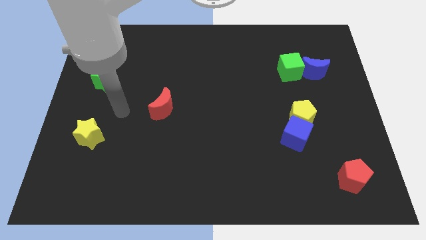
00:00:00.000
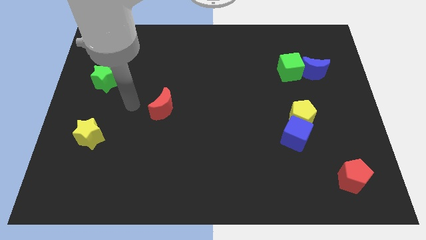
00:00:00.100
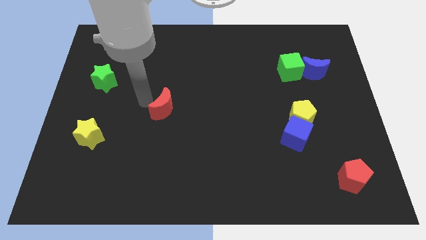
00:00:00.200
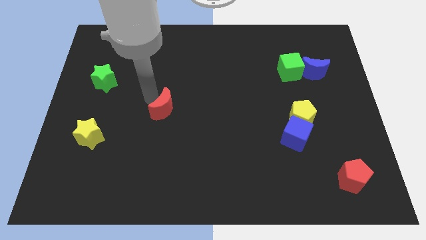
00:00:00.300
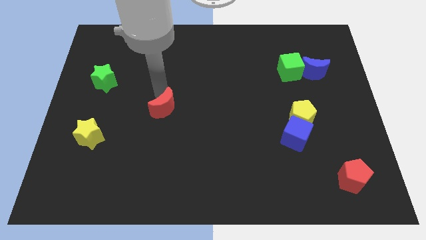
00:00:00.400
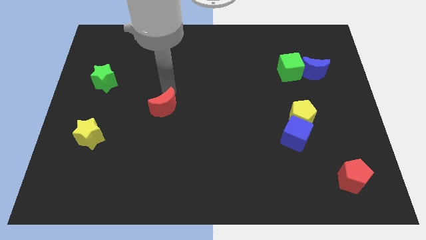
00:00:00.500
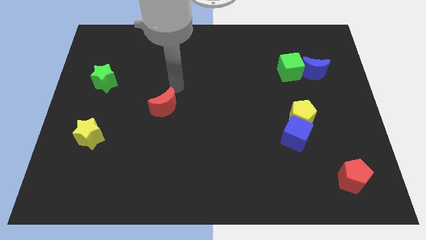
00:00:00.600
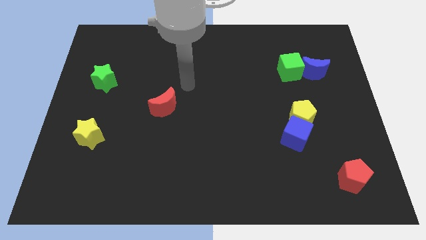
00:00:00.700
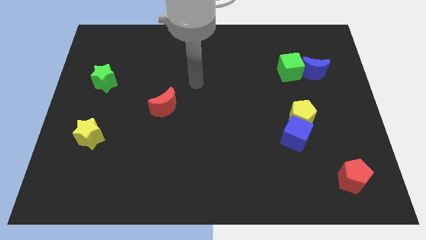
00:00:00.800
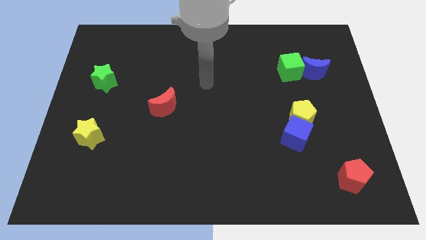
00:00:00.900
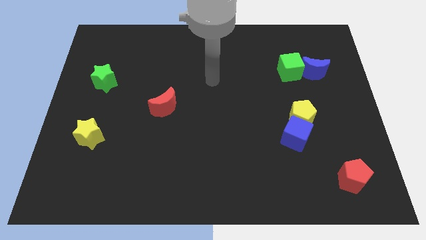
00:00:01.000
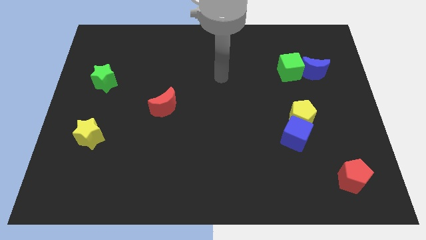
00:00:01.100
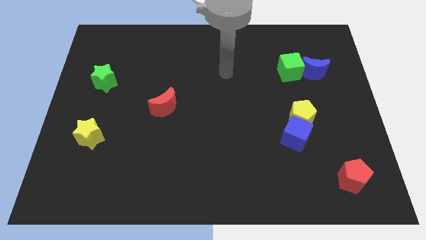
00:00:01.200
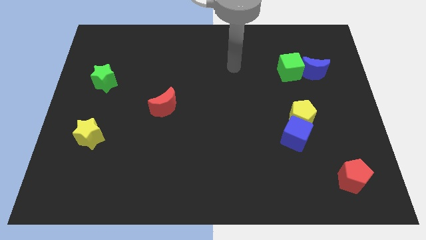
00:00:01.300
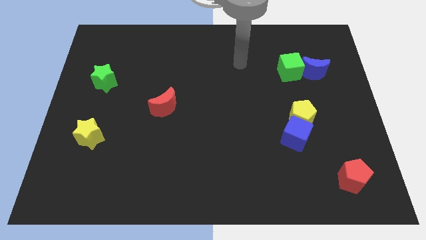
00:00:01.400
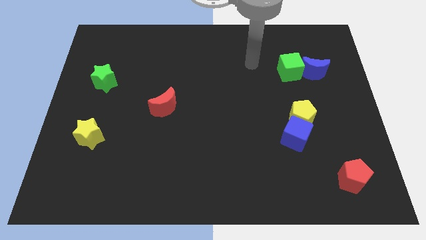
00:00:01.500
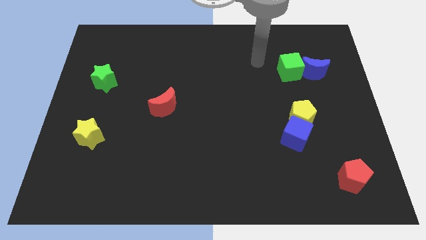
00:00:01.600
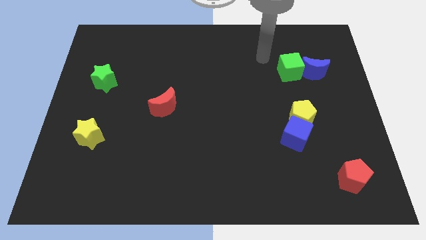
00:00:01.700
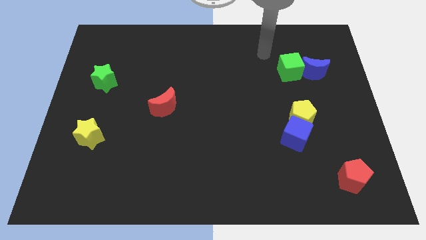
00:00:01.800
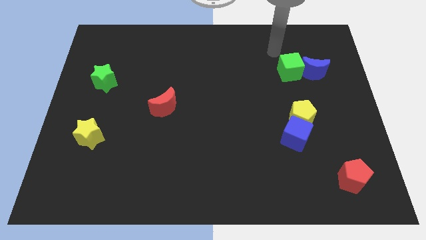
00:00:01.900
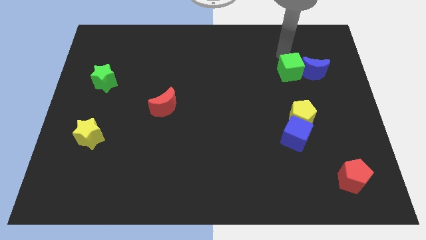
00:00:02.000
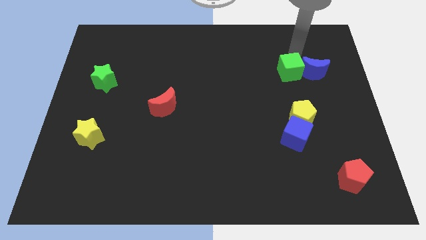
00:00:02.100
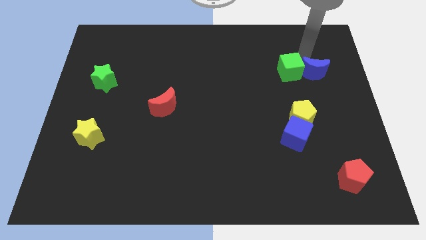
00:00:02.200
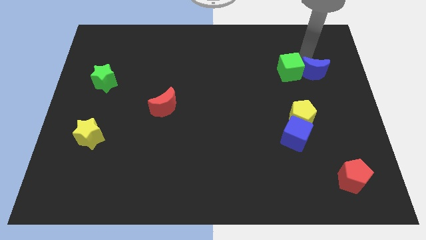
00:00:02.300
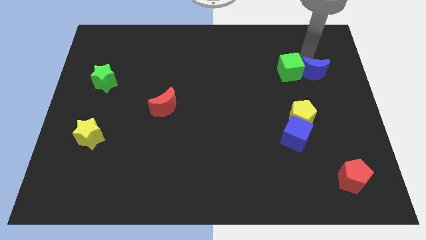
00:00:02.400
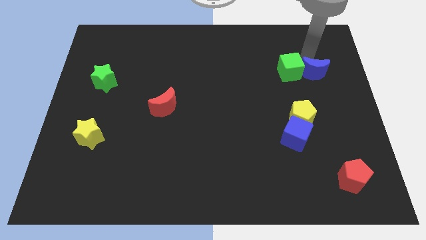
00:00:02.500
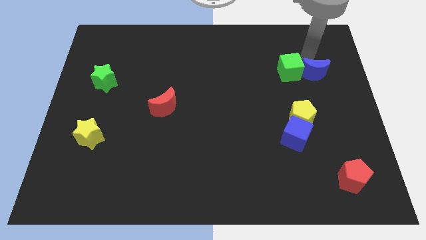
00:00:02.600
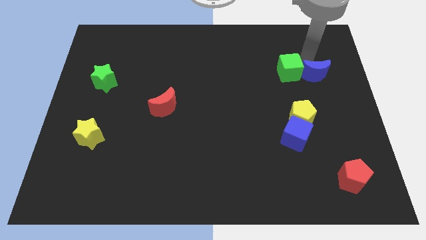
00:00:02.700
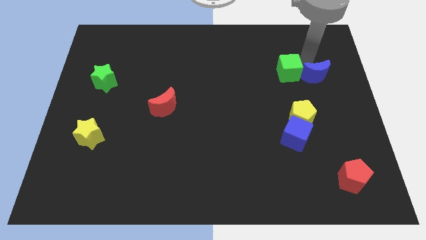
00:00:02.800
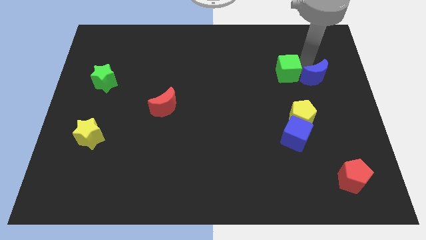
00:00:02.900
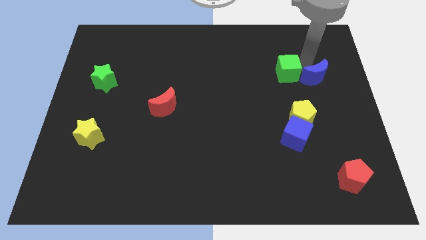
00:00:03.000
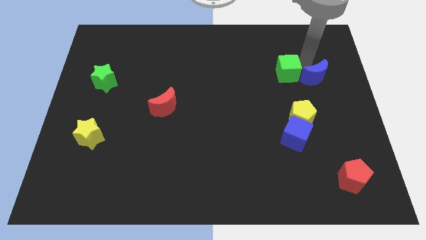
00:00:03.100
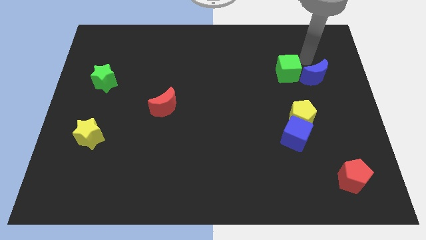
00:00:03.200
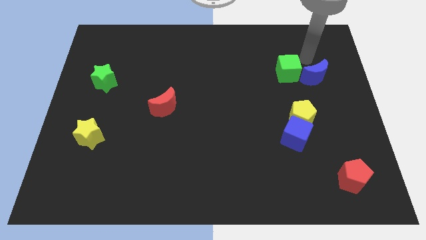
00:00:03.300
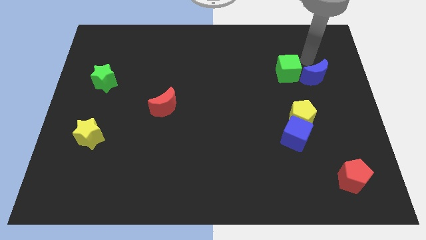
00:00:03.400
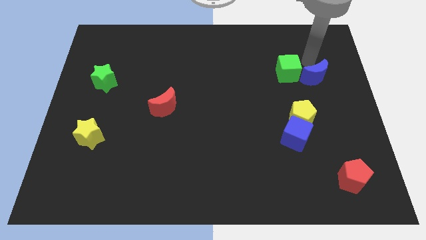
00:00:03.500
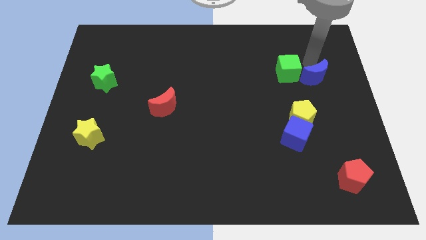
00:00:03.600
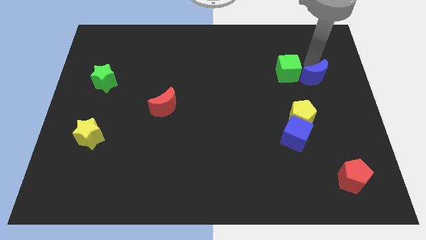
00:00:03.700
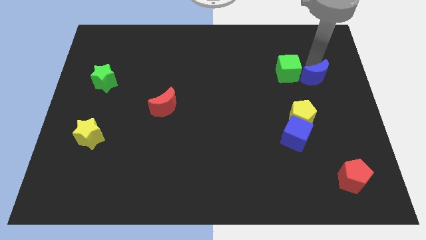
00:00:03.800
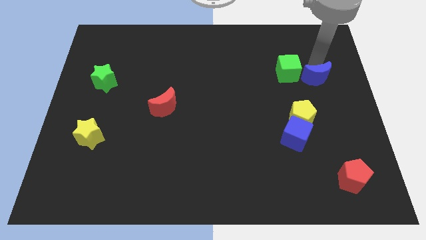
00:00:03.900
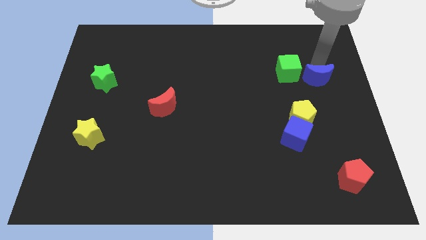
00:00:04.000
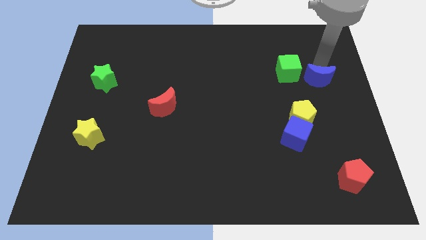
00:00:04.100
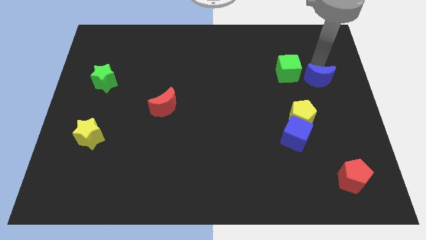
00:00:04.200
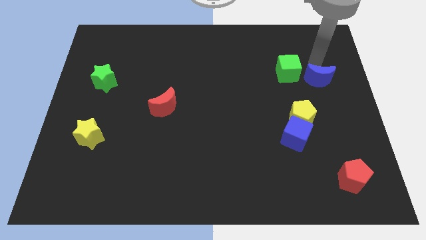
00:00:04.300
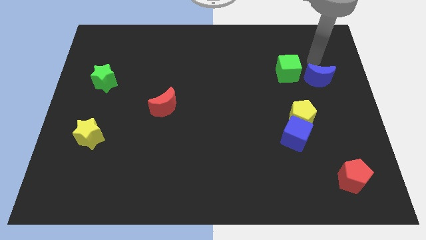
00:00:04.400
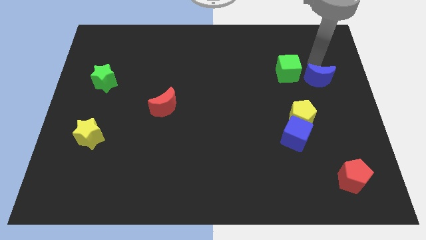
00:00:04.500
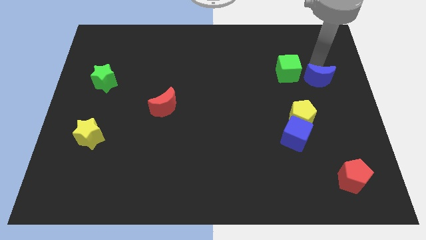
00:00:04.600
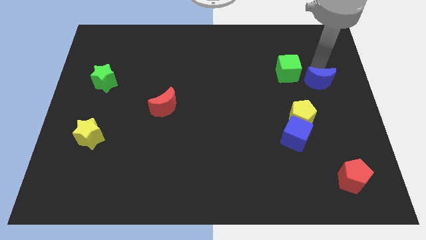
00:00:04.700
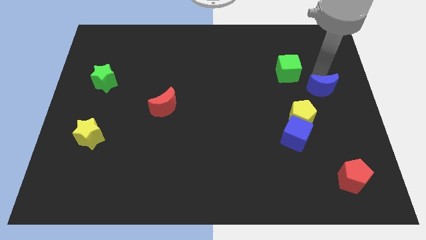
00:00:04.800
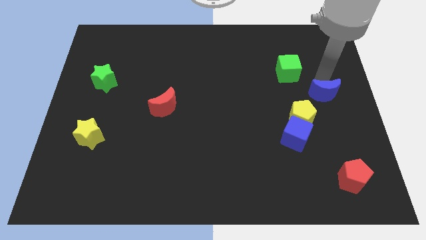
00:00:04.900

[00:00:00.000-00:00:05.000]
slightly push the blue moon downwards

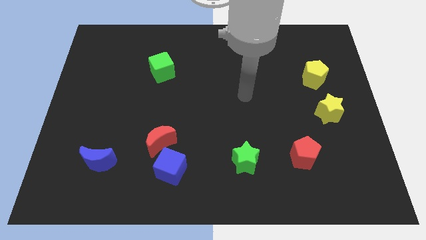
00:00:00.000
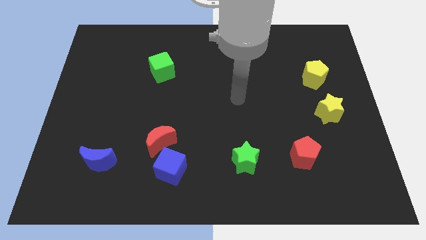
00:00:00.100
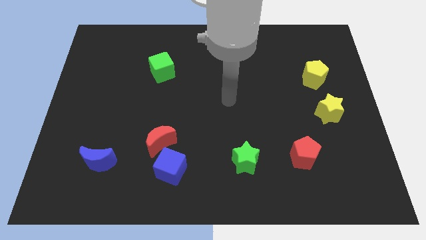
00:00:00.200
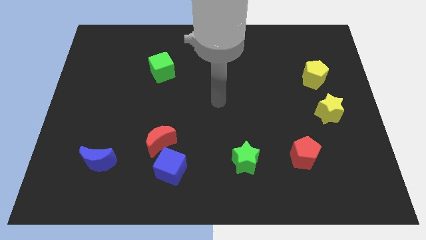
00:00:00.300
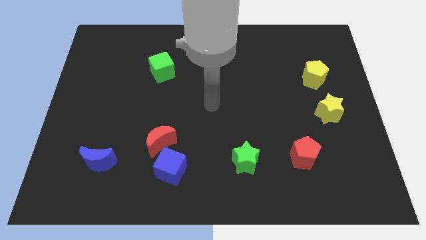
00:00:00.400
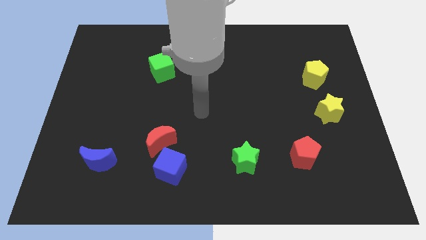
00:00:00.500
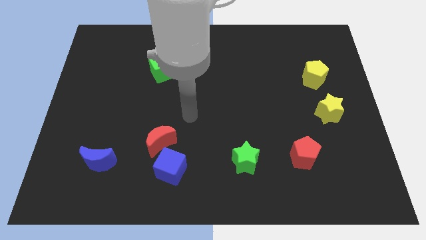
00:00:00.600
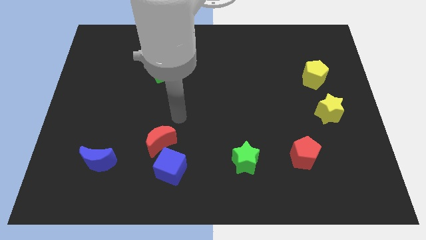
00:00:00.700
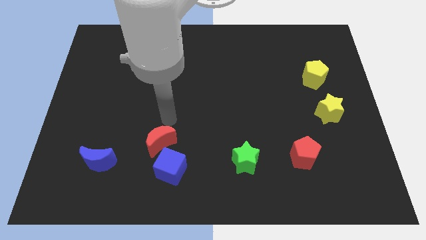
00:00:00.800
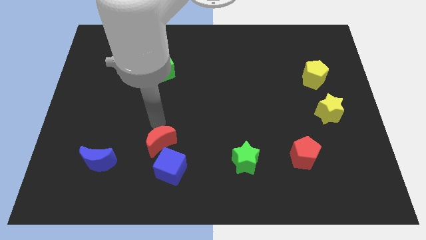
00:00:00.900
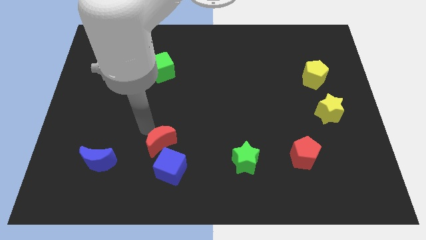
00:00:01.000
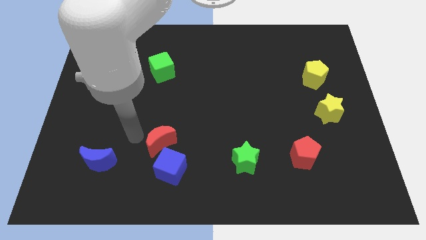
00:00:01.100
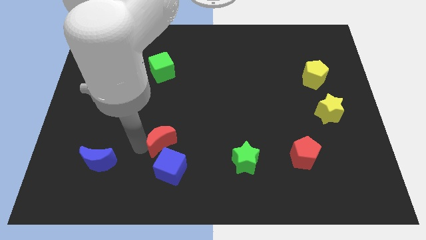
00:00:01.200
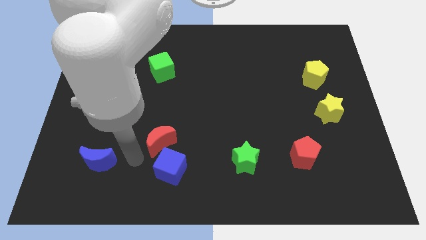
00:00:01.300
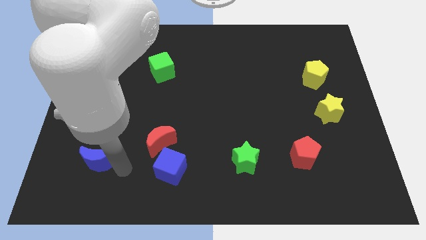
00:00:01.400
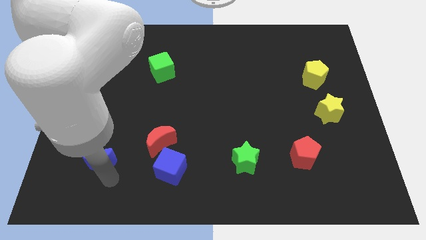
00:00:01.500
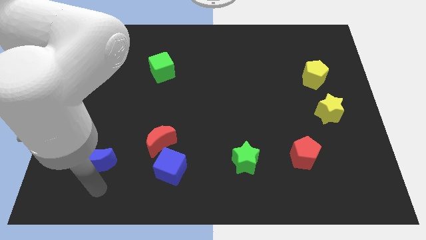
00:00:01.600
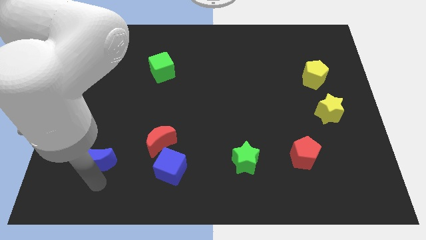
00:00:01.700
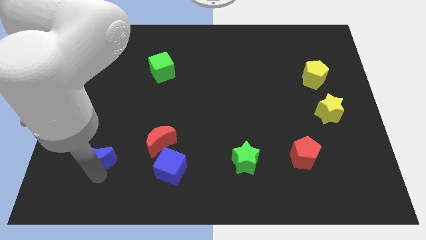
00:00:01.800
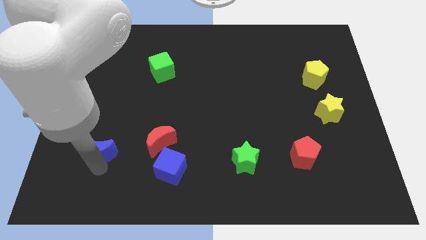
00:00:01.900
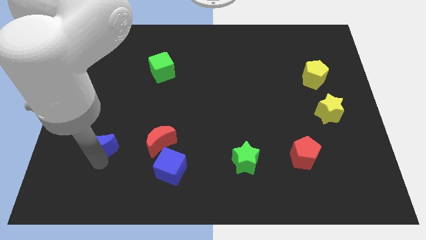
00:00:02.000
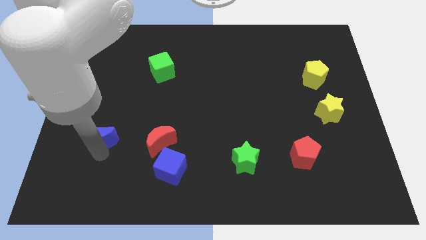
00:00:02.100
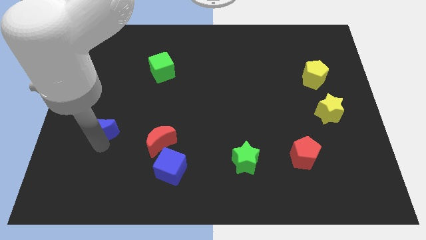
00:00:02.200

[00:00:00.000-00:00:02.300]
slightly move the blue moon upwards

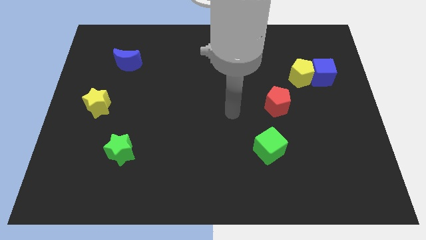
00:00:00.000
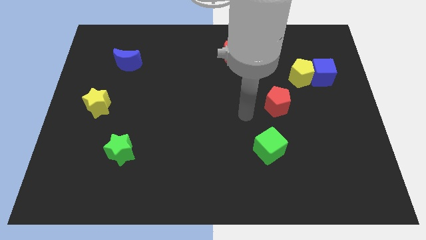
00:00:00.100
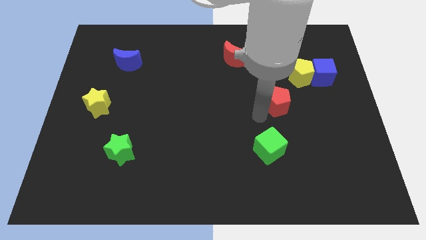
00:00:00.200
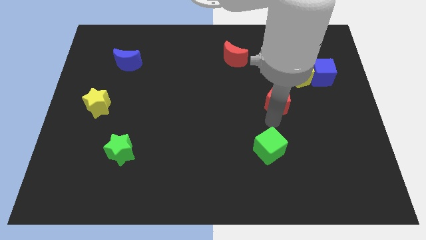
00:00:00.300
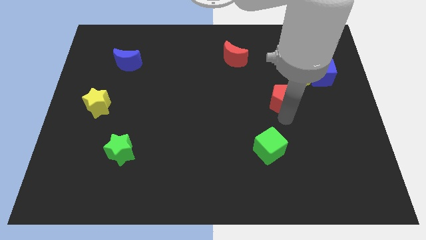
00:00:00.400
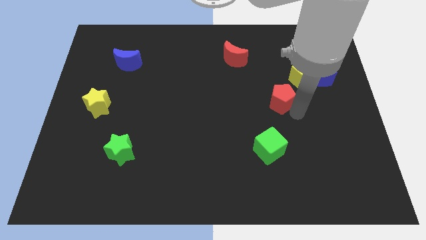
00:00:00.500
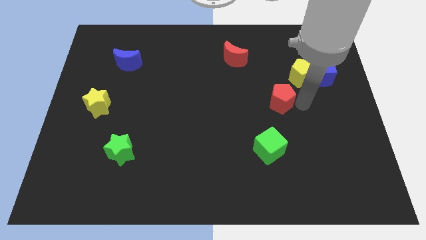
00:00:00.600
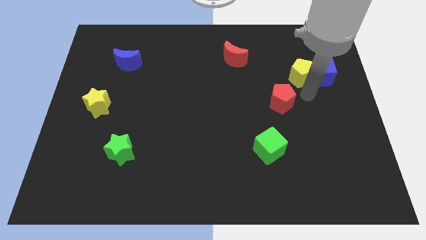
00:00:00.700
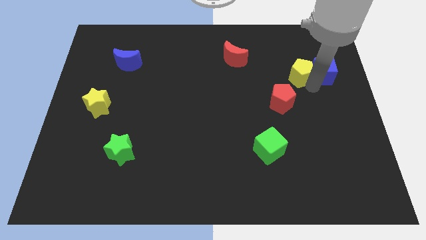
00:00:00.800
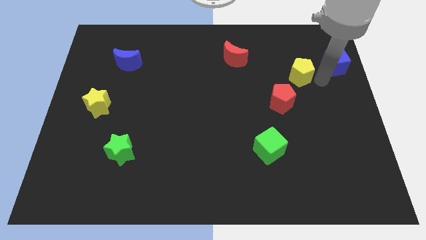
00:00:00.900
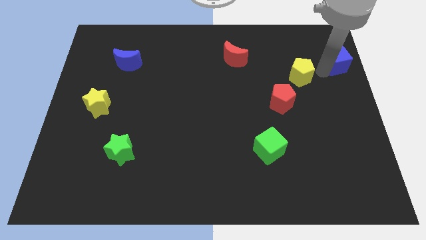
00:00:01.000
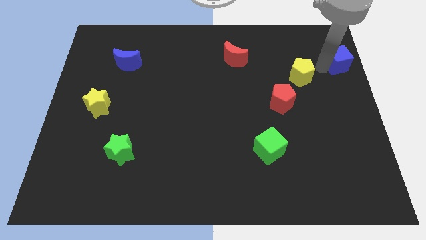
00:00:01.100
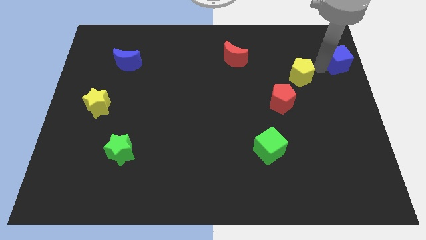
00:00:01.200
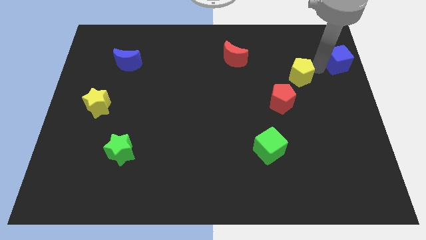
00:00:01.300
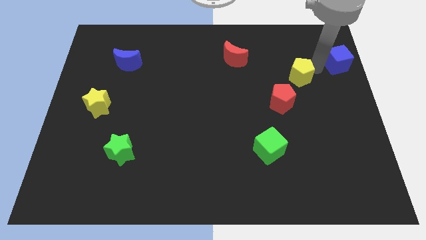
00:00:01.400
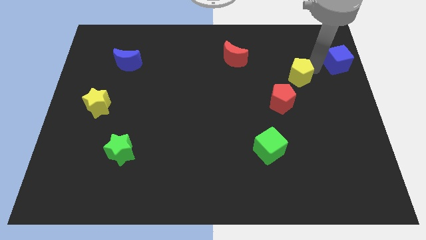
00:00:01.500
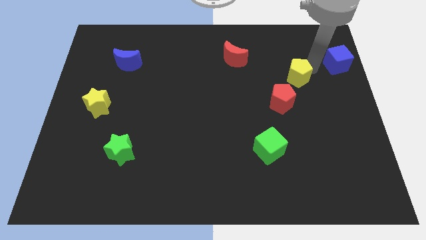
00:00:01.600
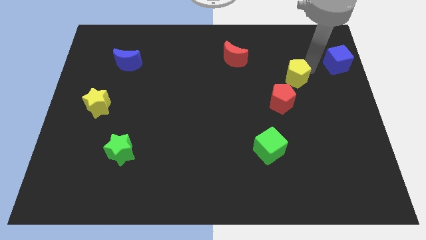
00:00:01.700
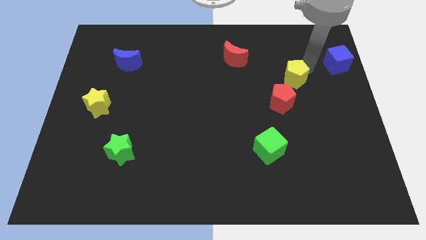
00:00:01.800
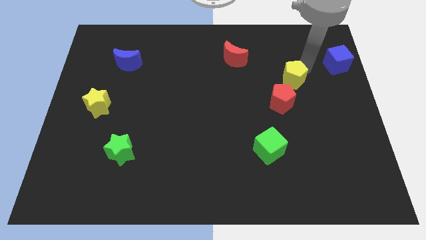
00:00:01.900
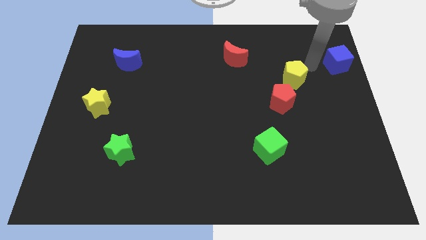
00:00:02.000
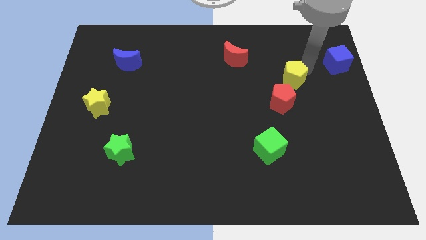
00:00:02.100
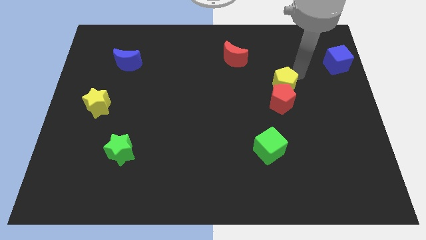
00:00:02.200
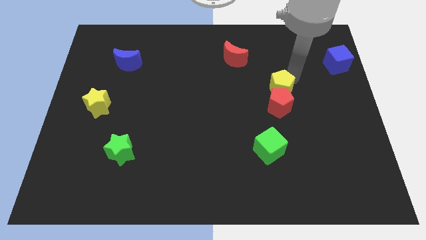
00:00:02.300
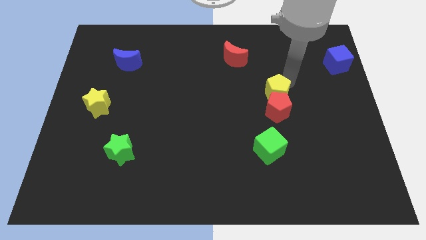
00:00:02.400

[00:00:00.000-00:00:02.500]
slightly move the yellow pentagon downwards and then left
